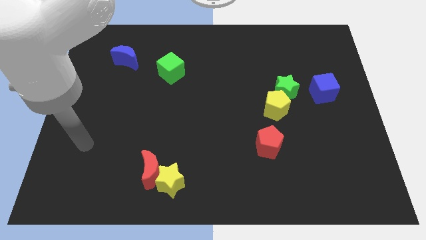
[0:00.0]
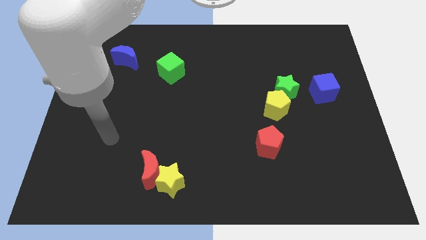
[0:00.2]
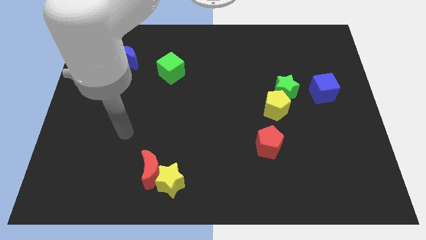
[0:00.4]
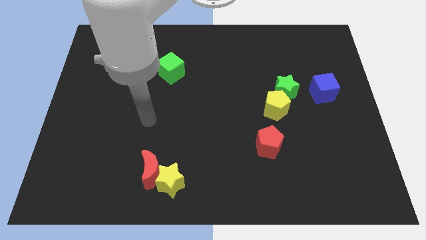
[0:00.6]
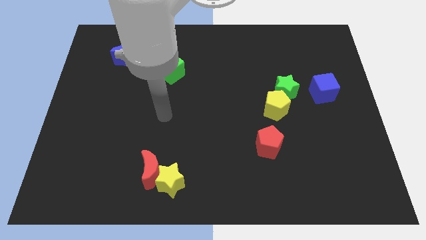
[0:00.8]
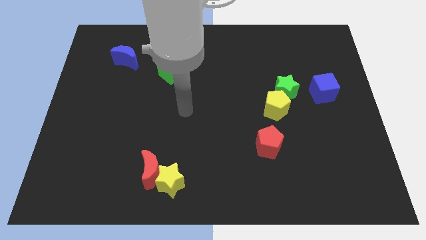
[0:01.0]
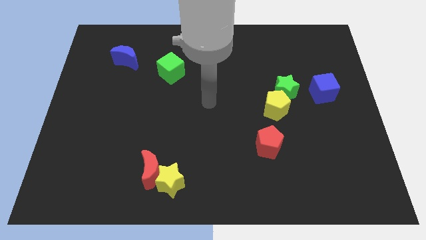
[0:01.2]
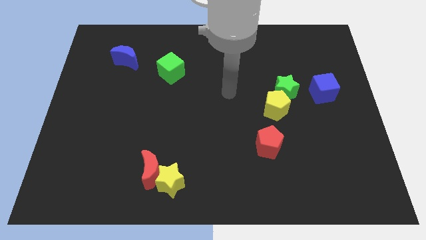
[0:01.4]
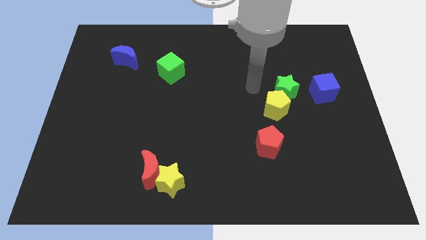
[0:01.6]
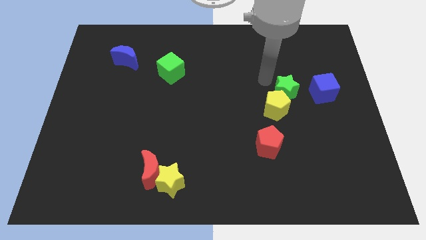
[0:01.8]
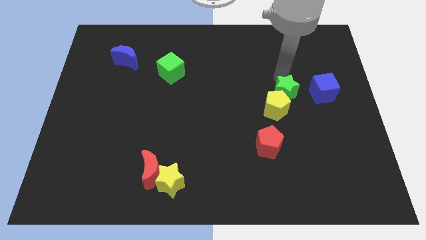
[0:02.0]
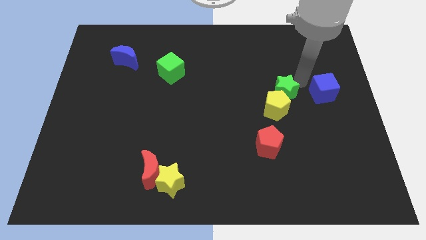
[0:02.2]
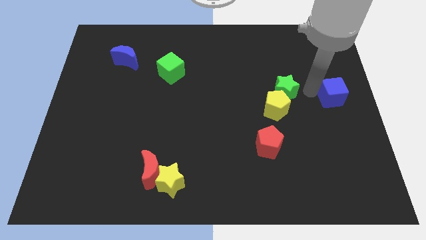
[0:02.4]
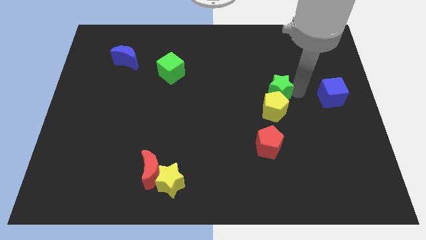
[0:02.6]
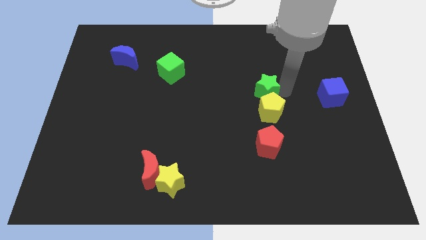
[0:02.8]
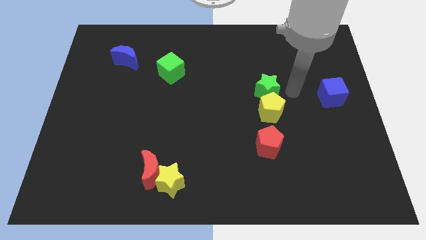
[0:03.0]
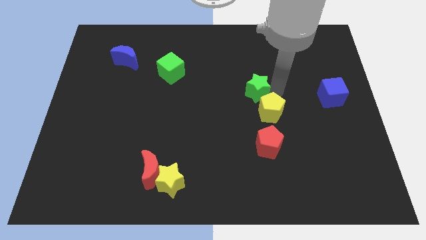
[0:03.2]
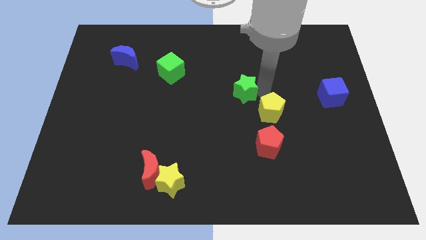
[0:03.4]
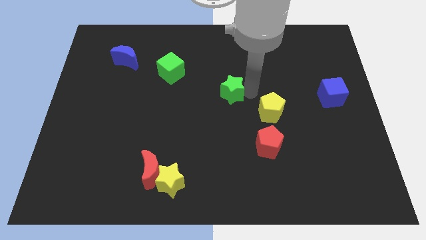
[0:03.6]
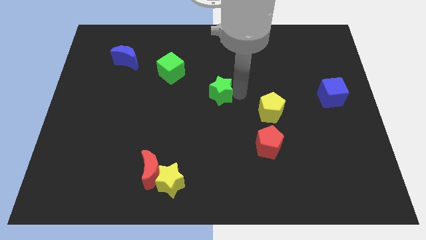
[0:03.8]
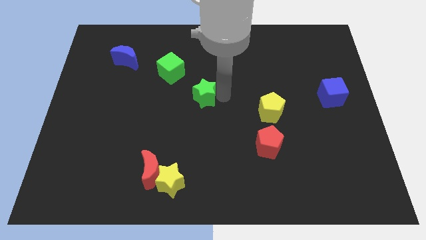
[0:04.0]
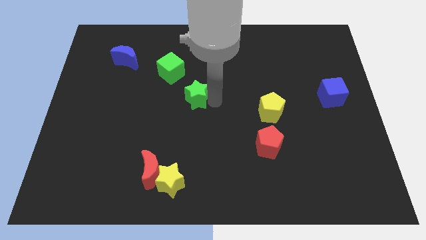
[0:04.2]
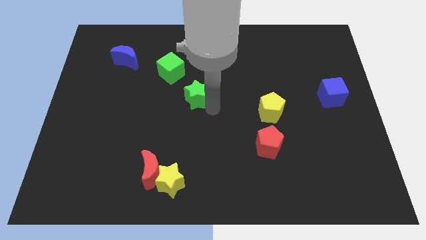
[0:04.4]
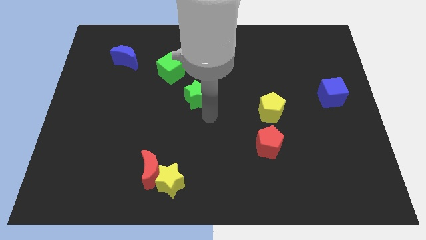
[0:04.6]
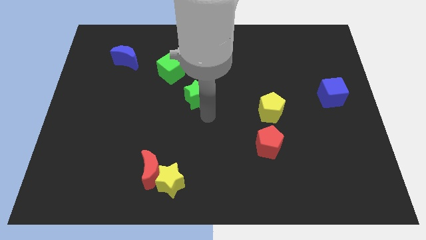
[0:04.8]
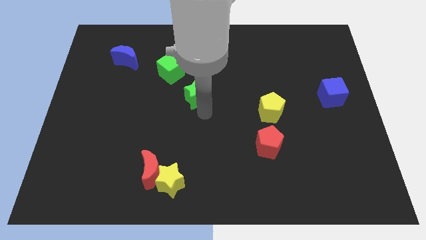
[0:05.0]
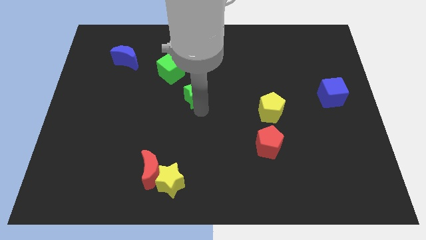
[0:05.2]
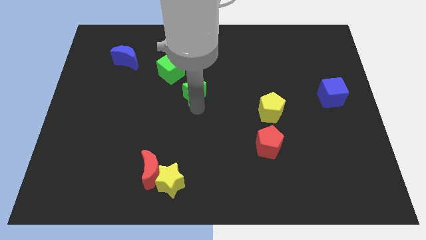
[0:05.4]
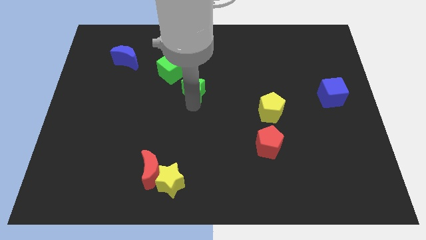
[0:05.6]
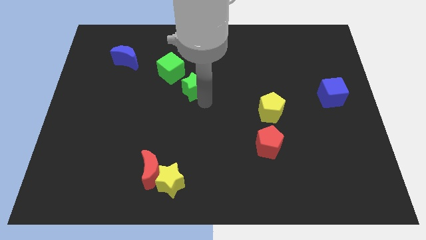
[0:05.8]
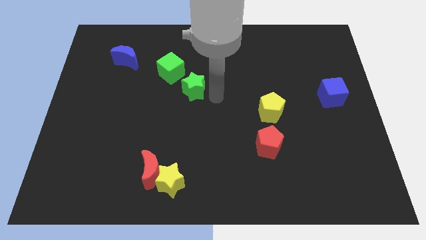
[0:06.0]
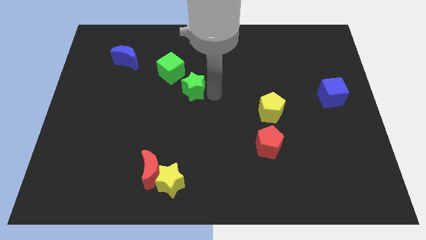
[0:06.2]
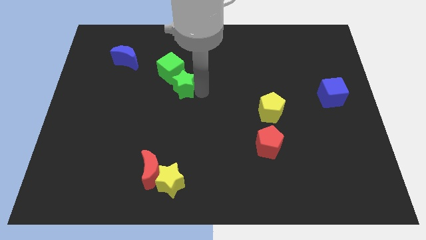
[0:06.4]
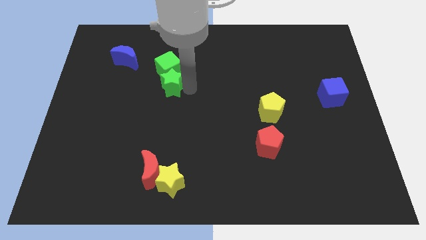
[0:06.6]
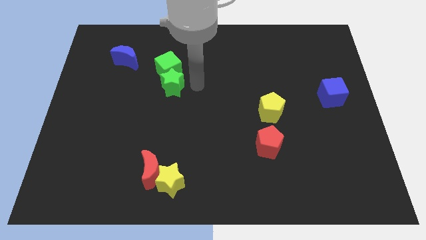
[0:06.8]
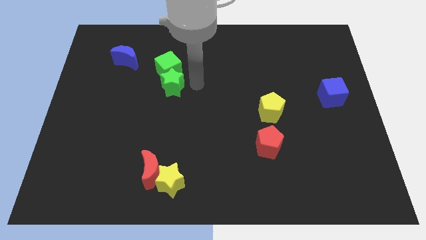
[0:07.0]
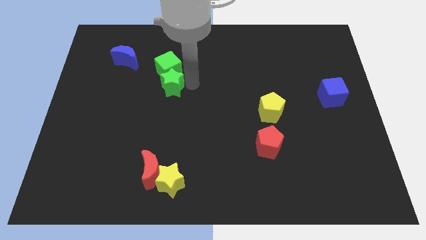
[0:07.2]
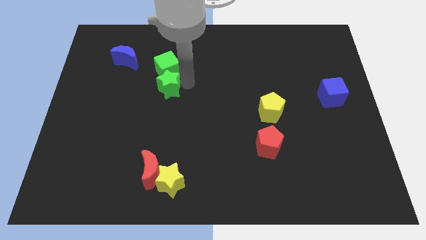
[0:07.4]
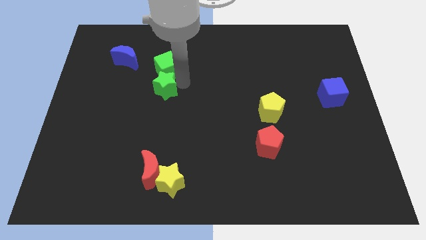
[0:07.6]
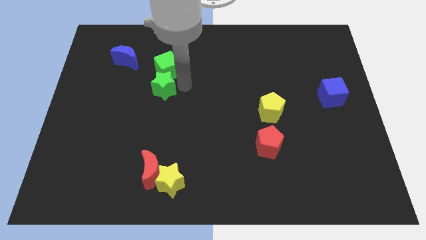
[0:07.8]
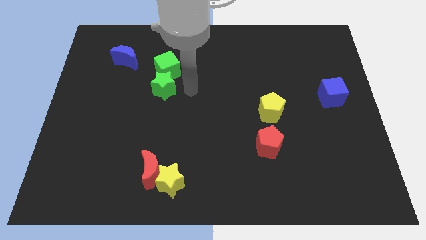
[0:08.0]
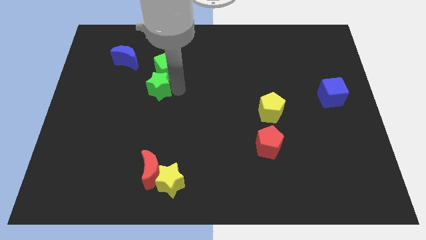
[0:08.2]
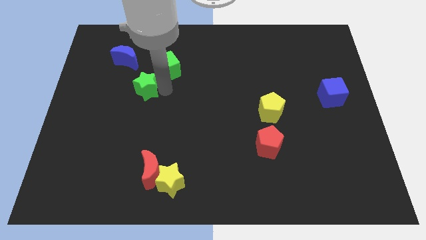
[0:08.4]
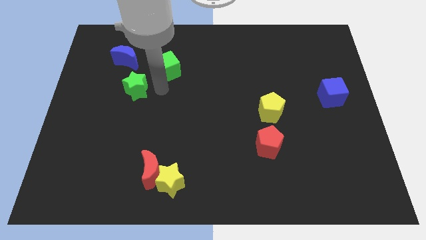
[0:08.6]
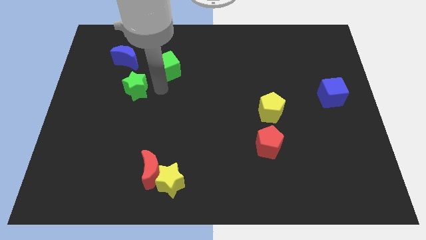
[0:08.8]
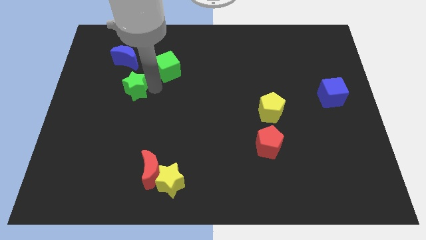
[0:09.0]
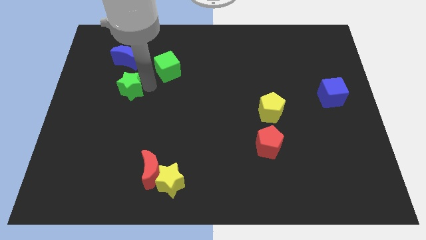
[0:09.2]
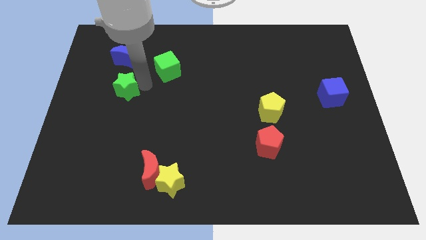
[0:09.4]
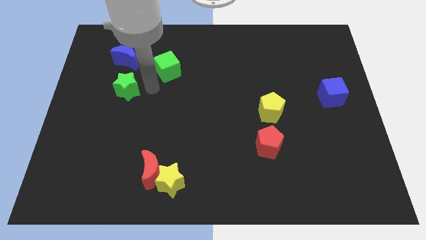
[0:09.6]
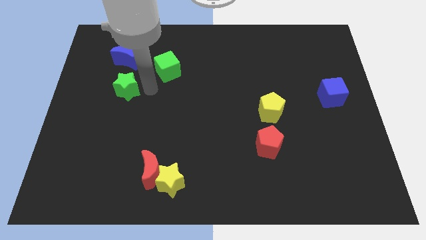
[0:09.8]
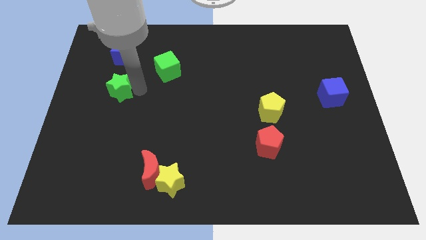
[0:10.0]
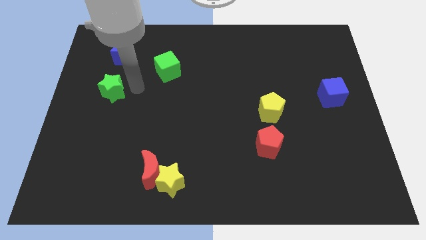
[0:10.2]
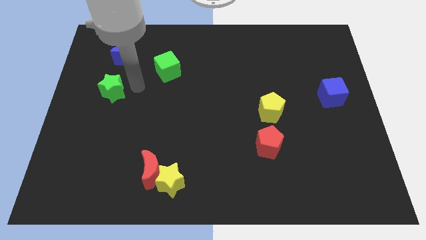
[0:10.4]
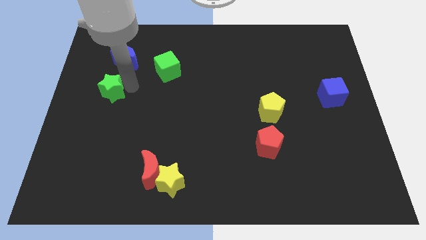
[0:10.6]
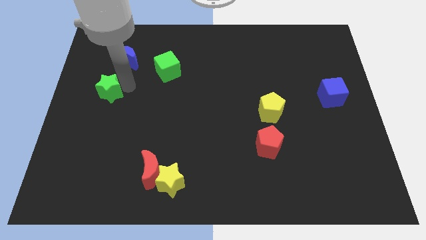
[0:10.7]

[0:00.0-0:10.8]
move the green star to the left side of the board
